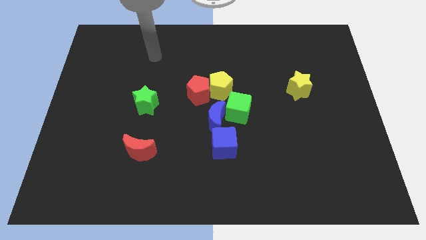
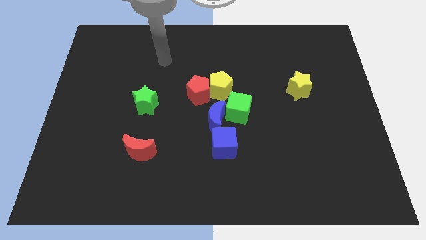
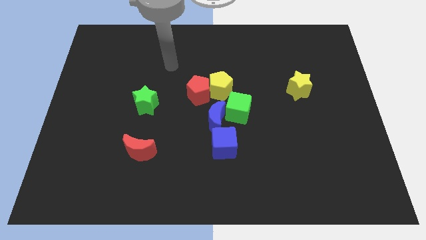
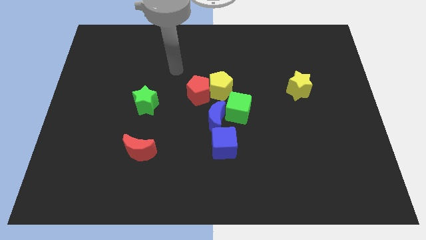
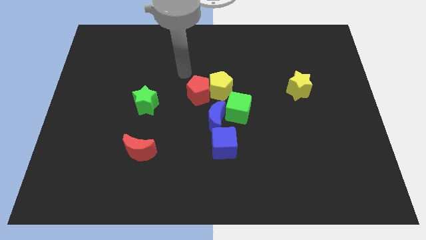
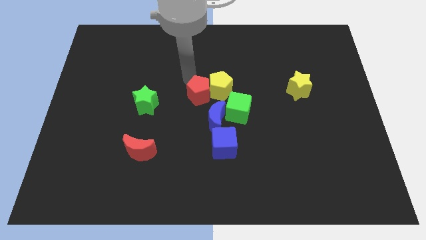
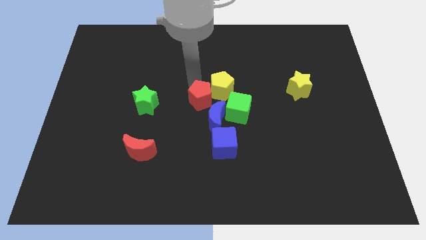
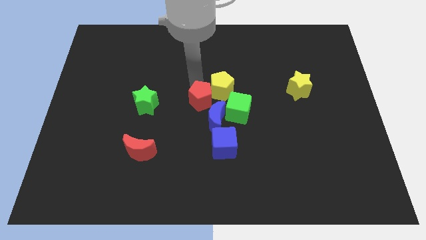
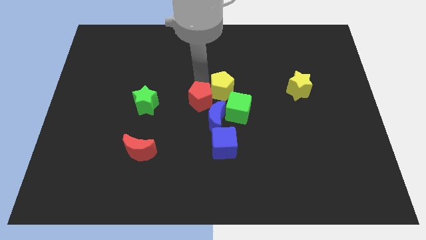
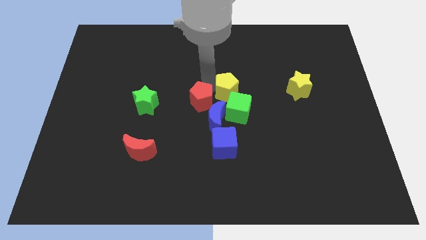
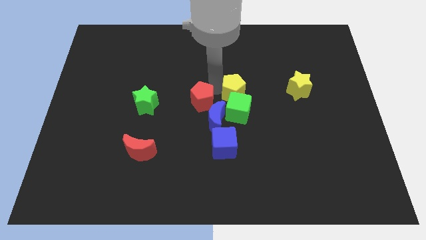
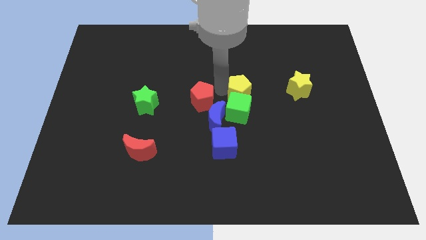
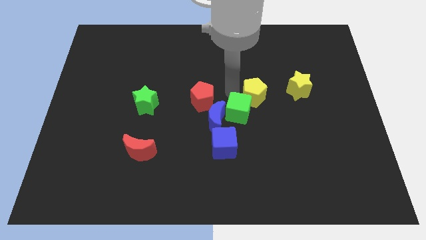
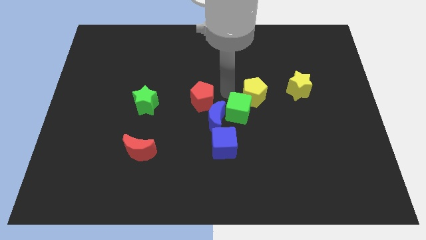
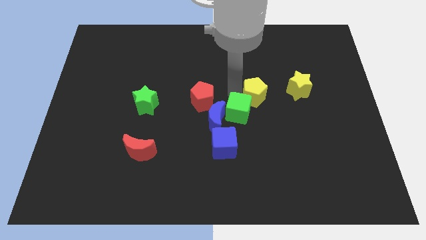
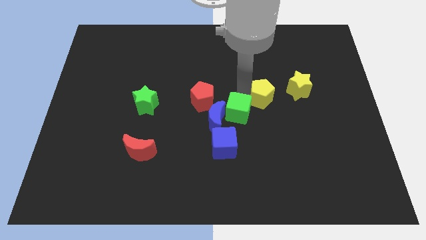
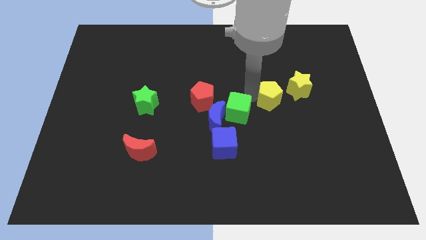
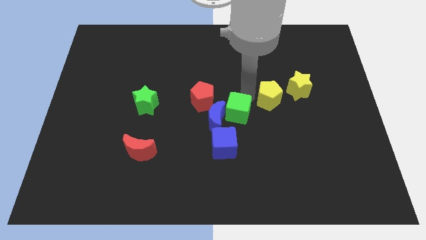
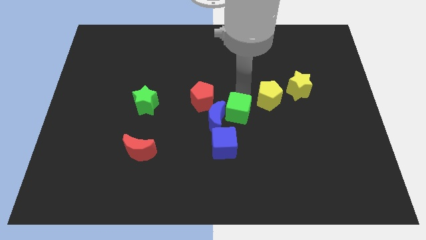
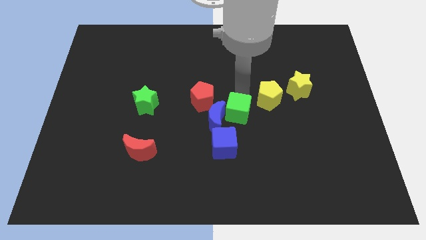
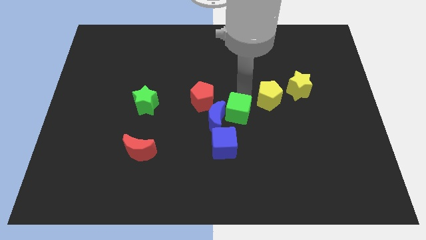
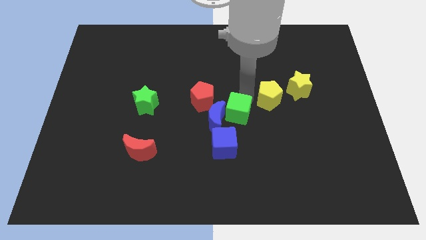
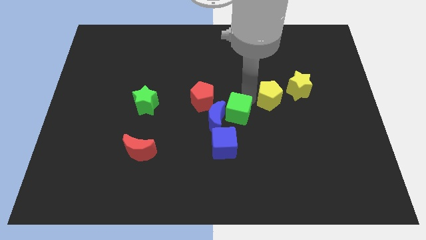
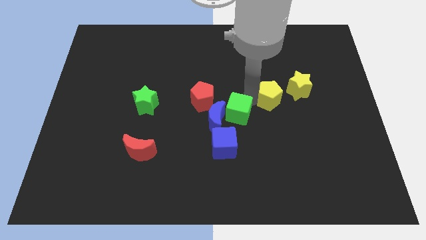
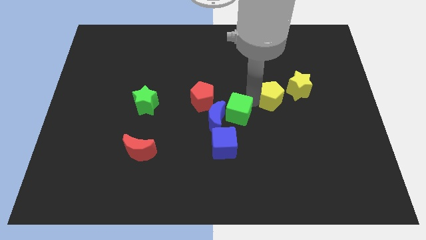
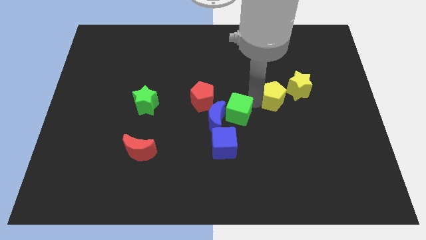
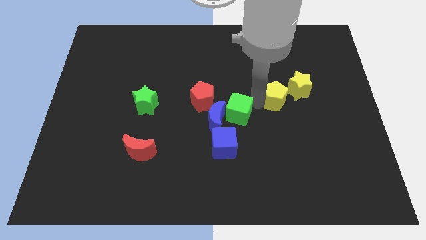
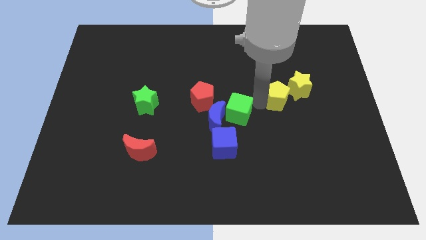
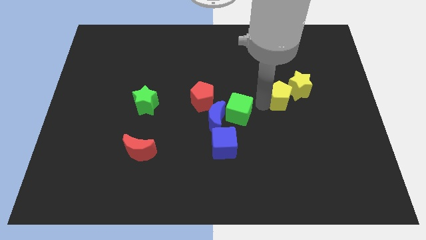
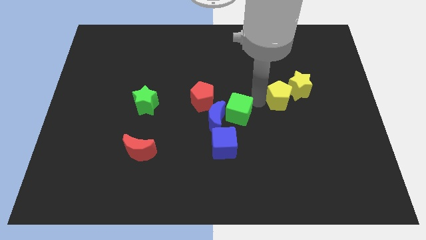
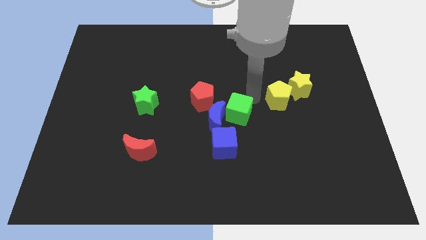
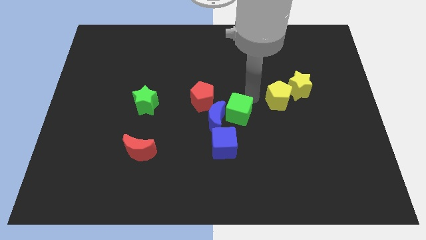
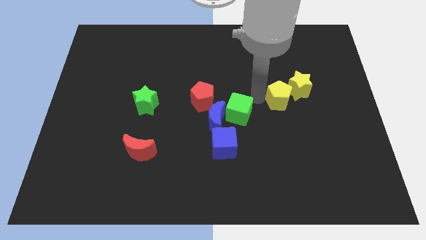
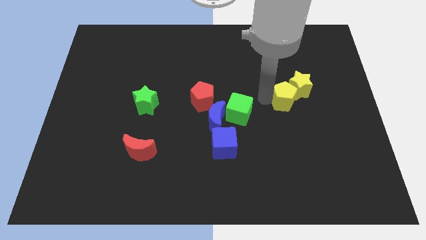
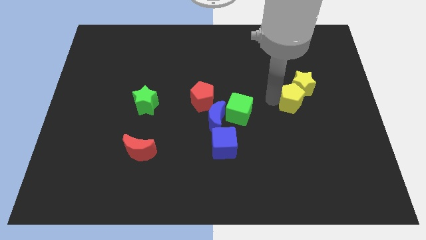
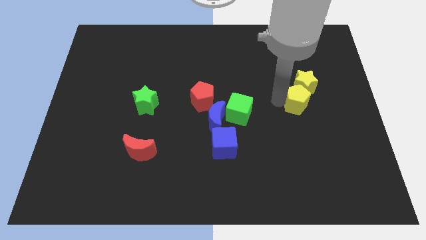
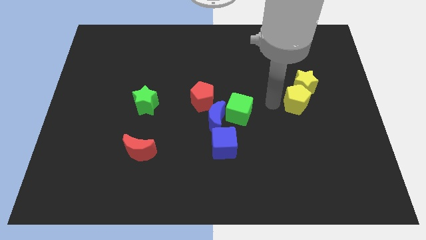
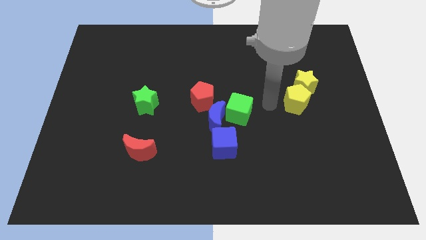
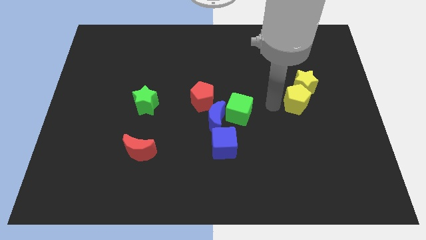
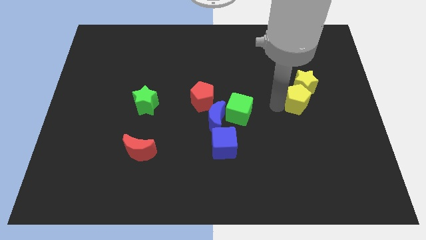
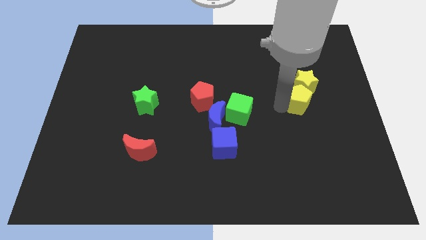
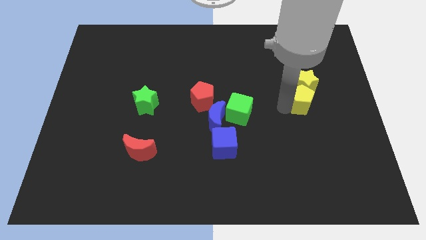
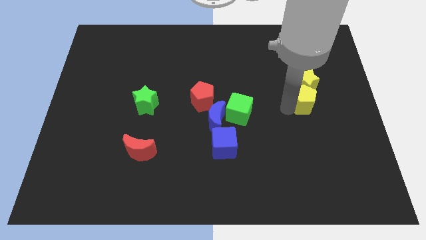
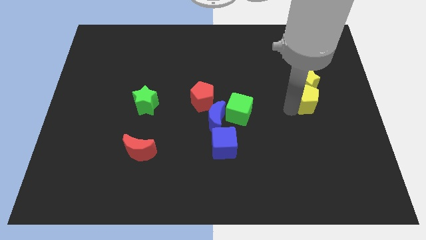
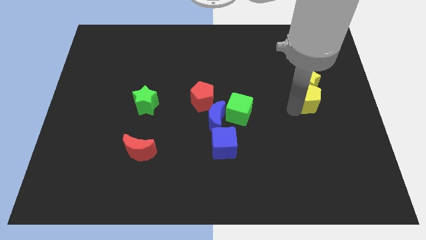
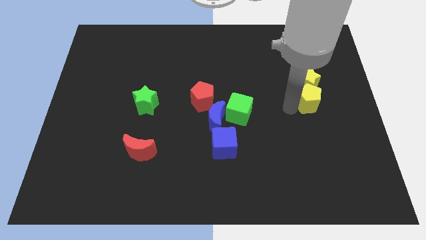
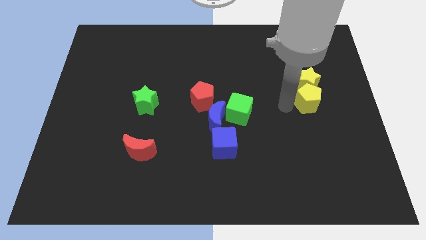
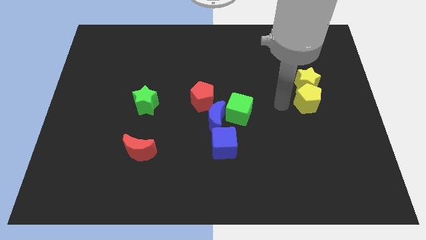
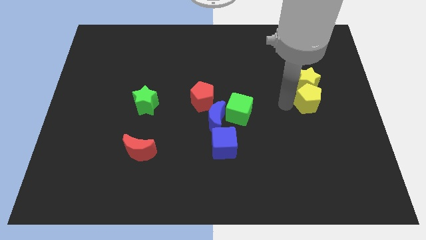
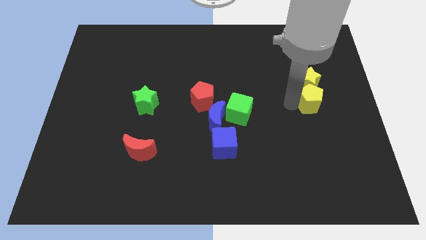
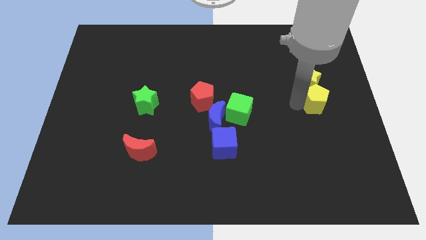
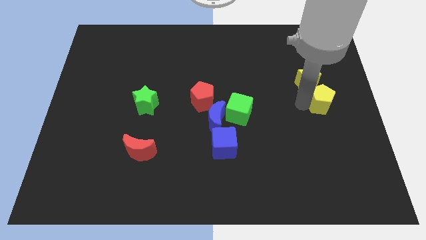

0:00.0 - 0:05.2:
move the yellow pentagon to the right side of the board

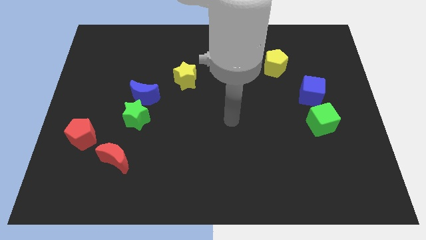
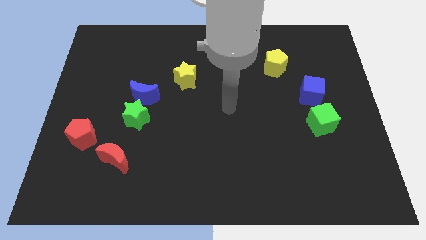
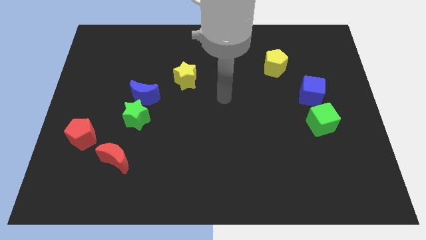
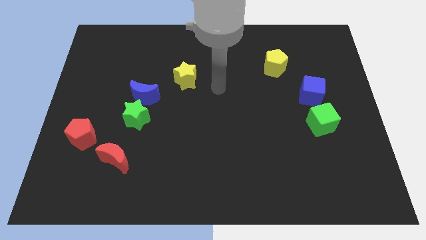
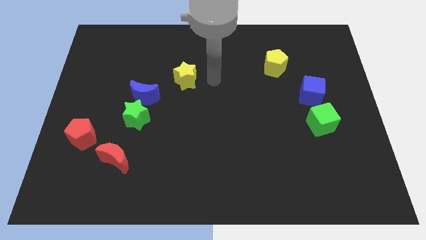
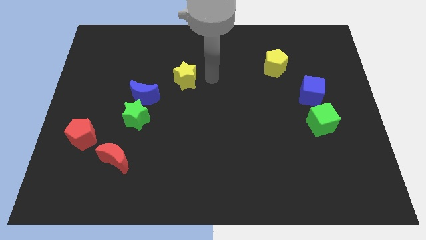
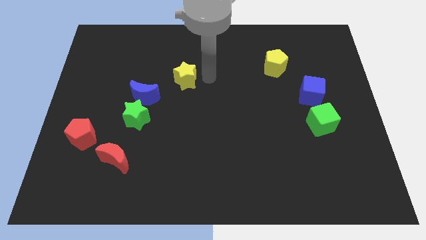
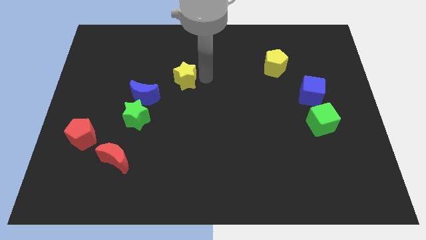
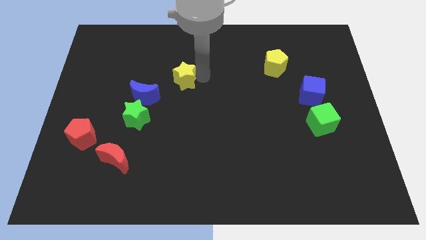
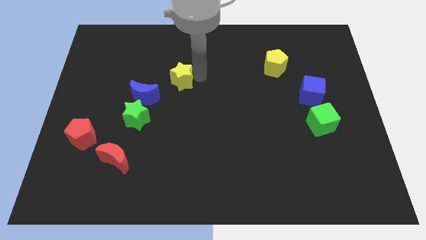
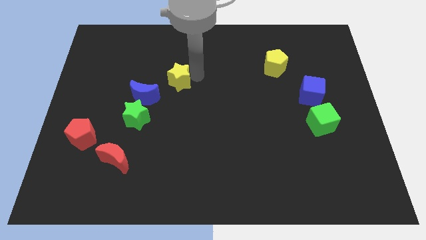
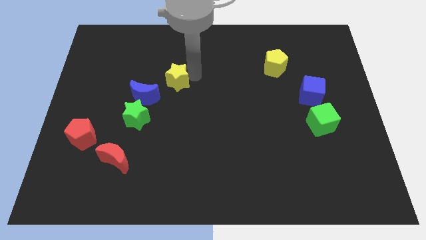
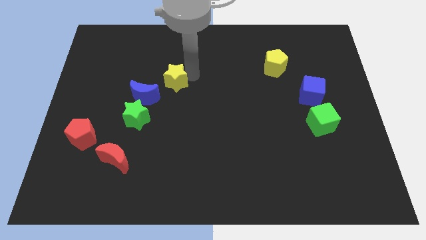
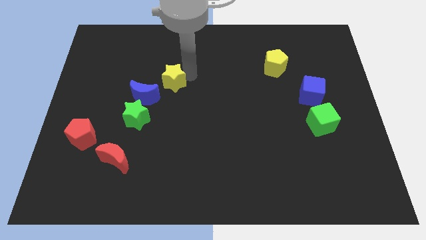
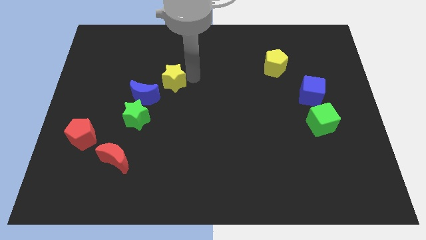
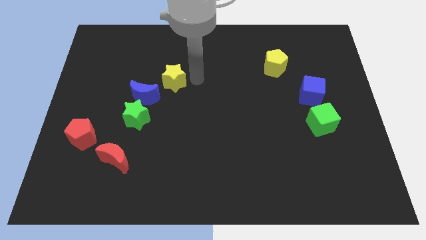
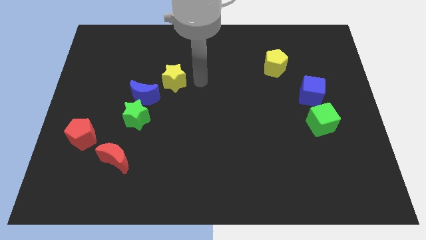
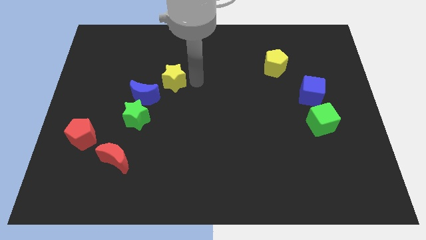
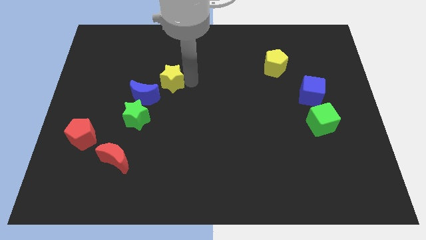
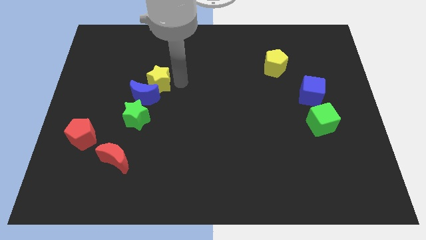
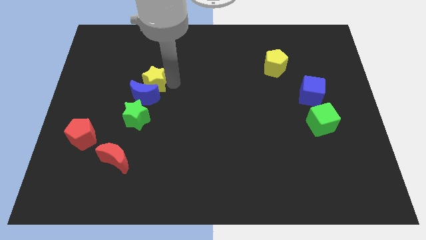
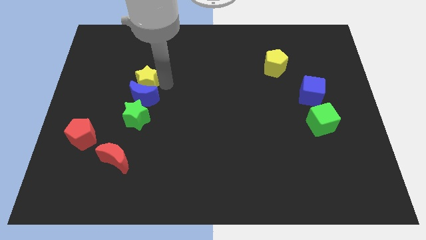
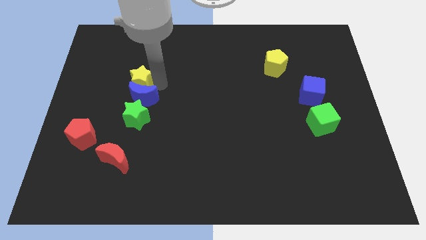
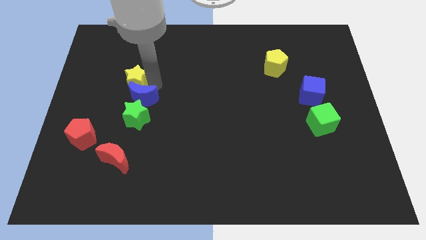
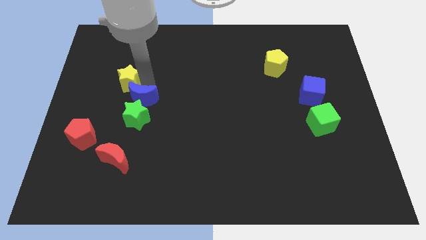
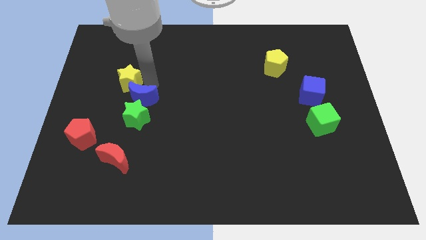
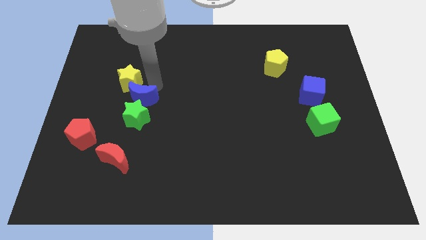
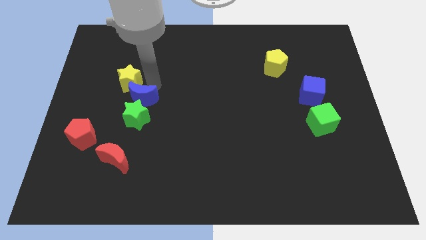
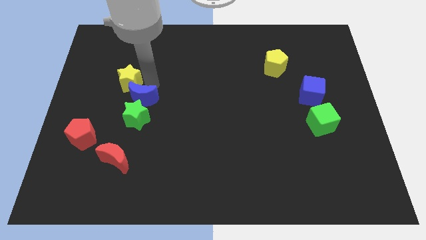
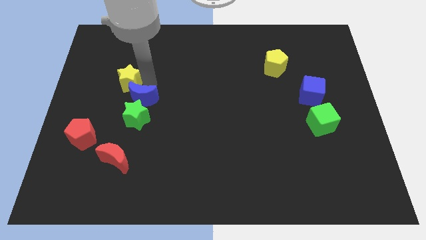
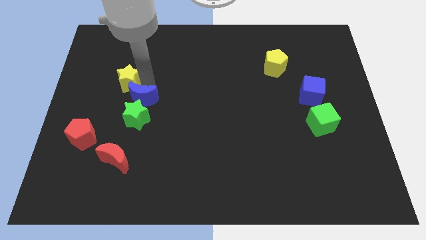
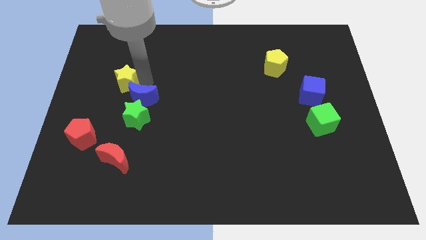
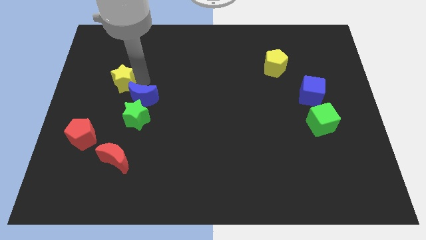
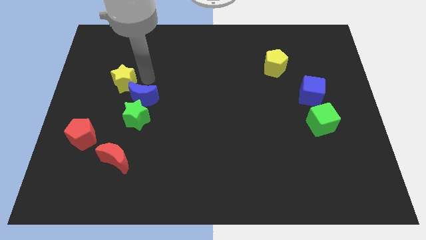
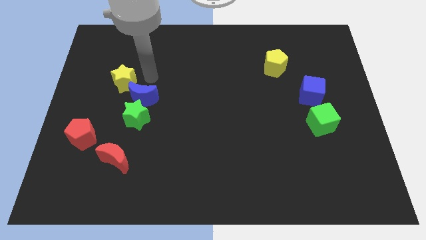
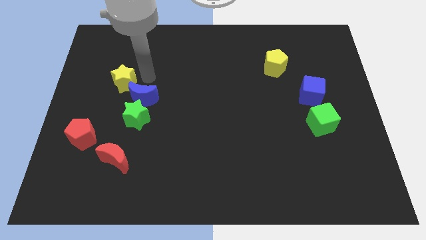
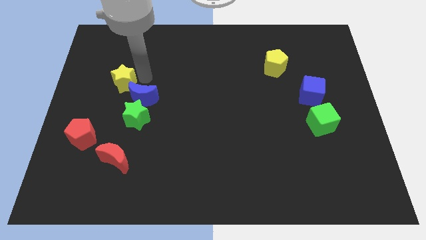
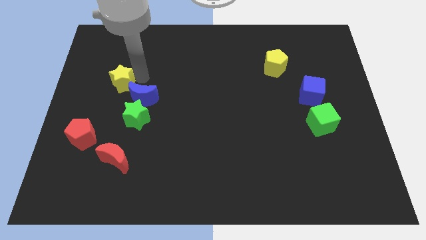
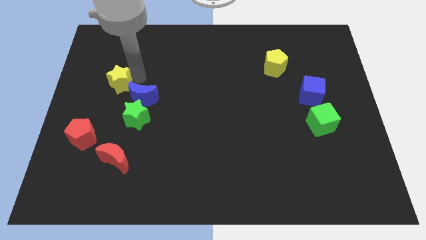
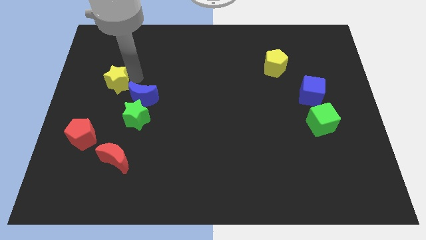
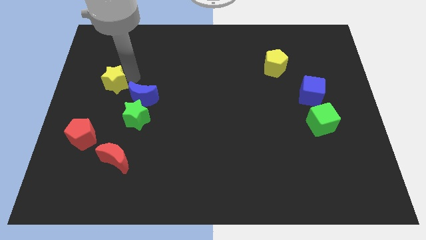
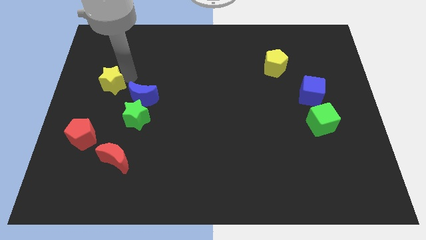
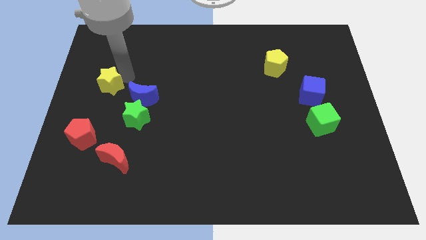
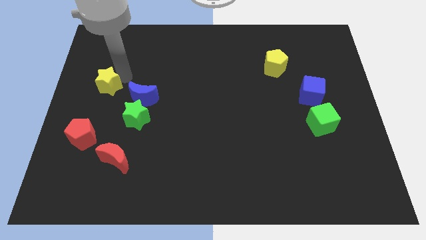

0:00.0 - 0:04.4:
slide the yellow star to the center left
